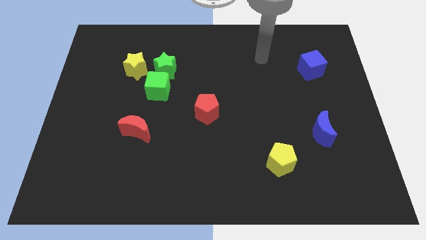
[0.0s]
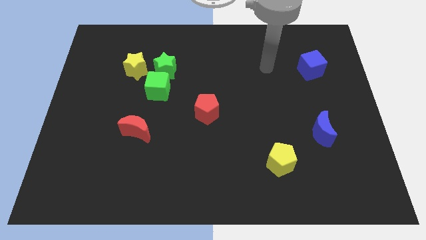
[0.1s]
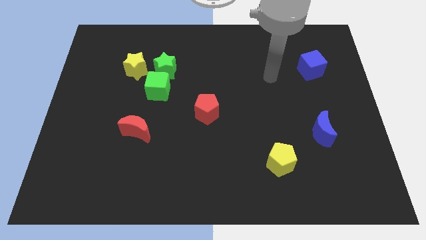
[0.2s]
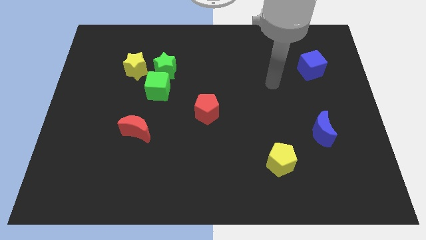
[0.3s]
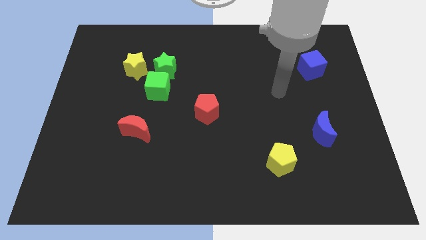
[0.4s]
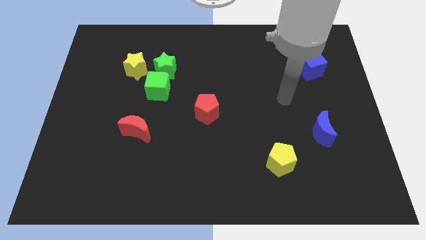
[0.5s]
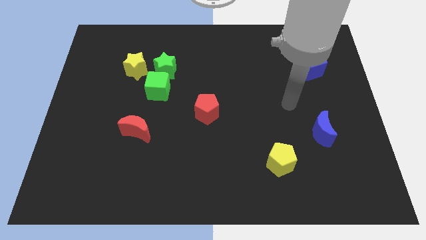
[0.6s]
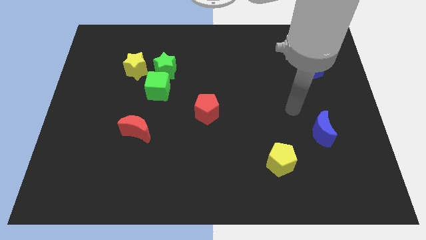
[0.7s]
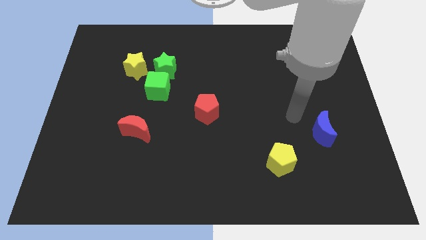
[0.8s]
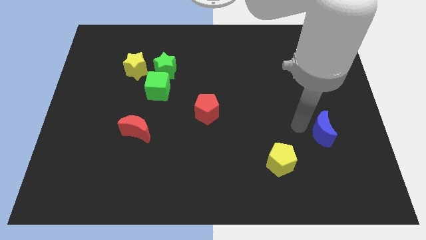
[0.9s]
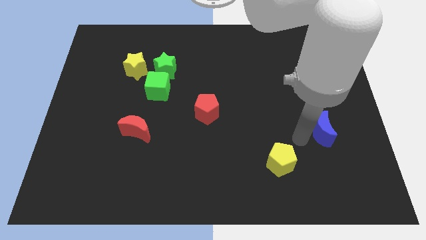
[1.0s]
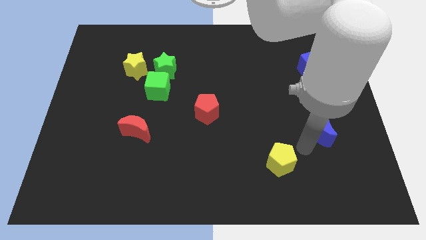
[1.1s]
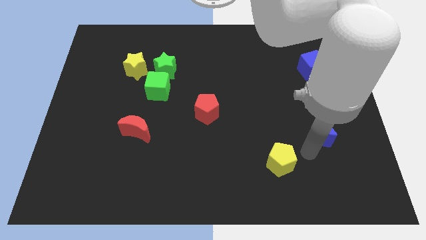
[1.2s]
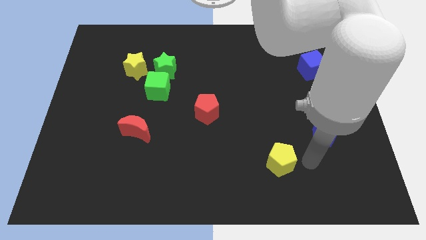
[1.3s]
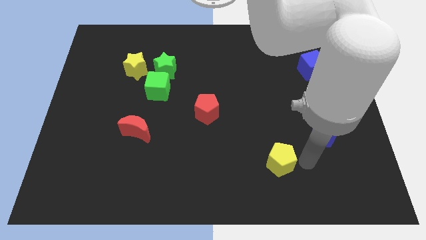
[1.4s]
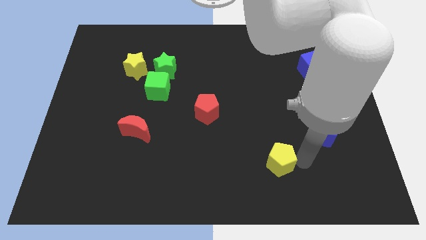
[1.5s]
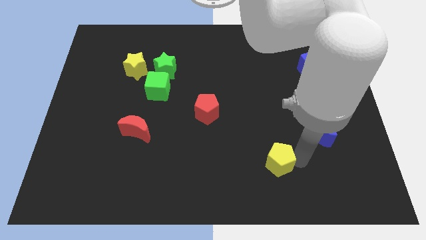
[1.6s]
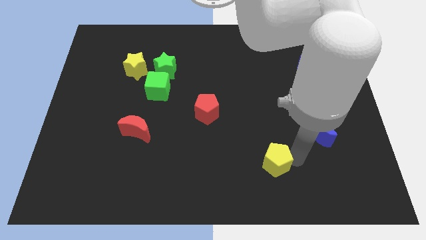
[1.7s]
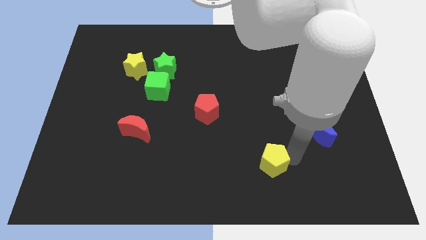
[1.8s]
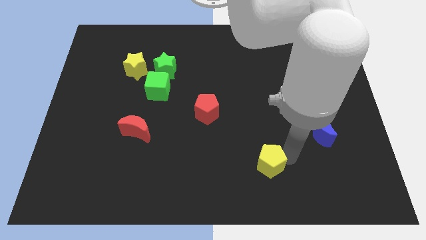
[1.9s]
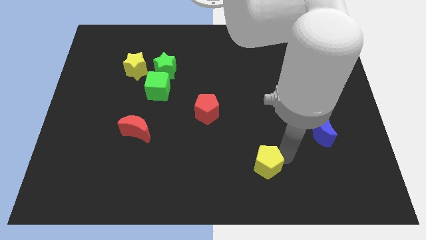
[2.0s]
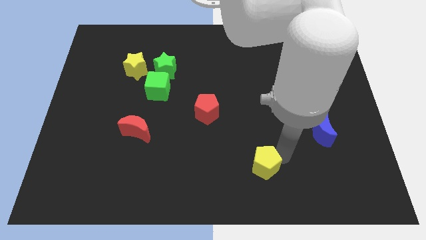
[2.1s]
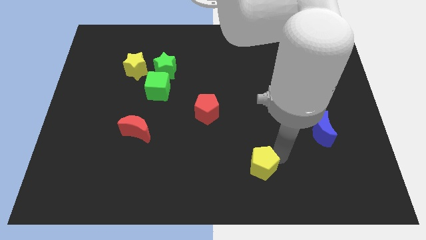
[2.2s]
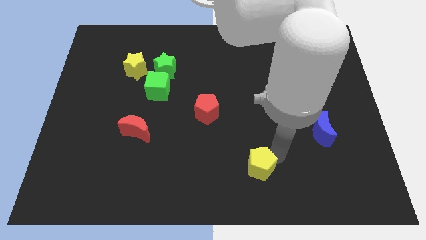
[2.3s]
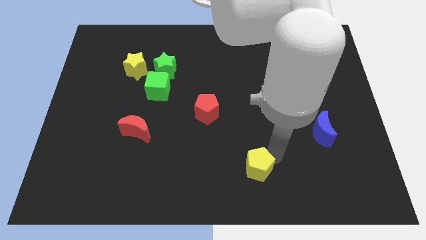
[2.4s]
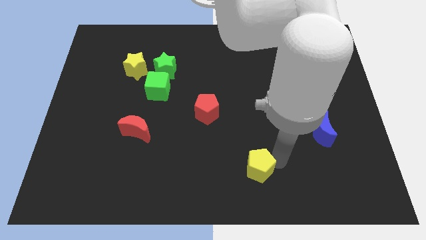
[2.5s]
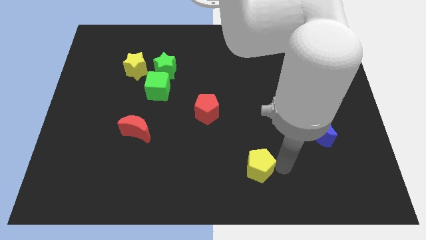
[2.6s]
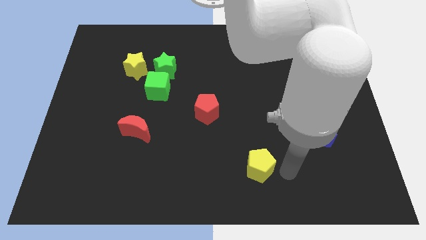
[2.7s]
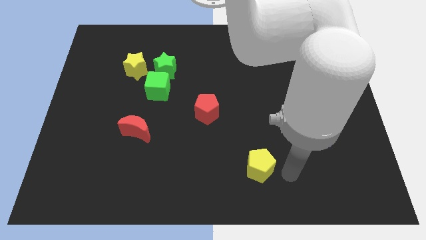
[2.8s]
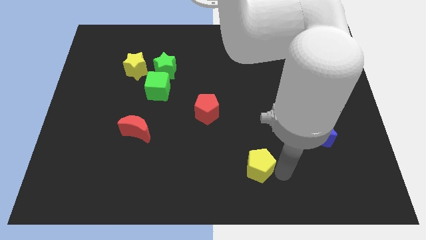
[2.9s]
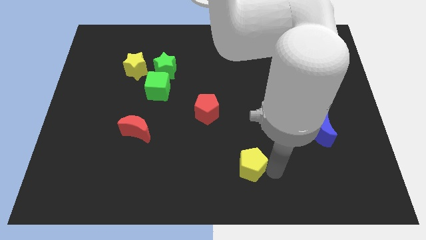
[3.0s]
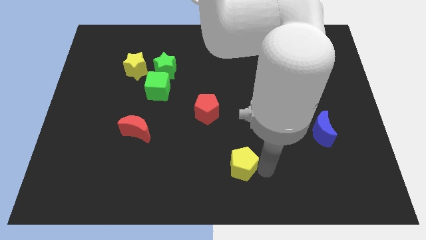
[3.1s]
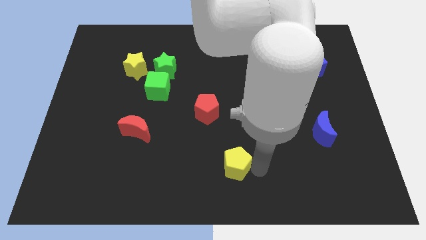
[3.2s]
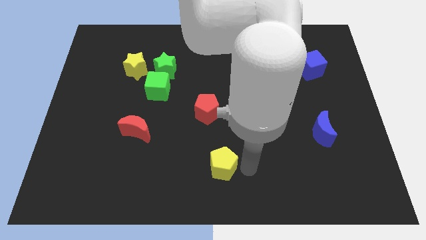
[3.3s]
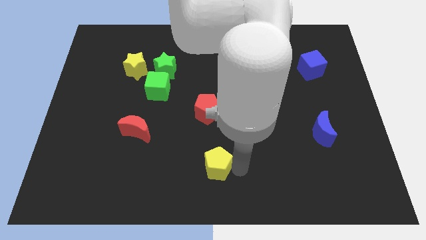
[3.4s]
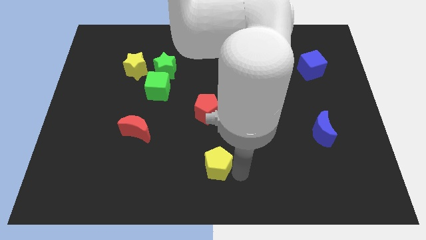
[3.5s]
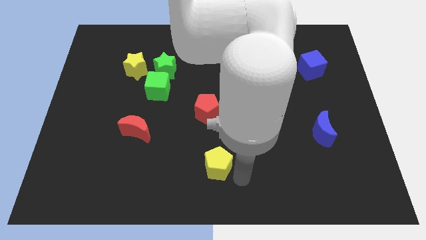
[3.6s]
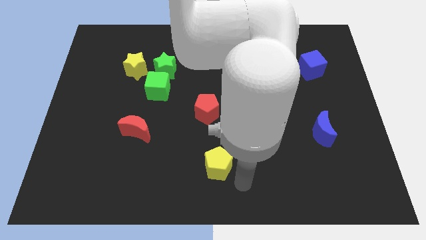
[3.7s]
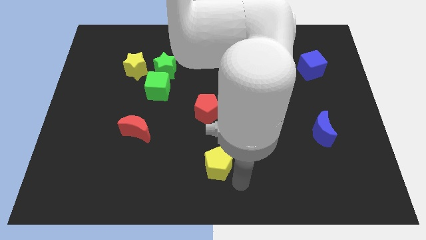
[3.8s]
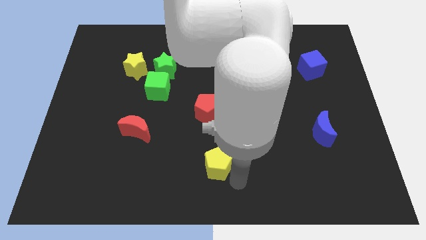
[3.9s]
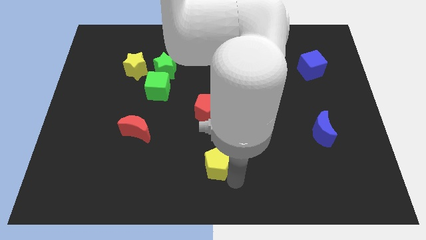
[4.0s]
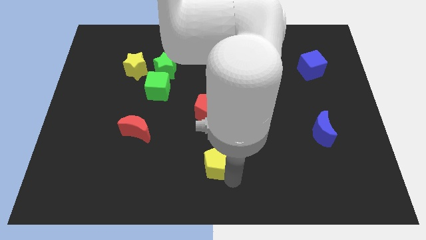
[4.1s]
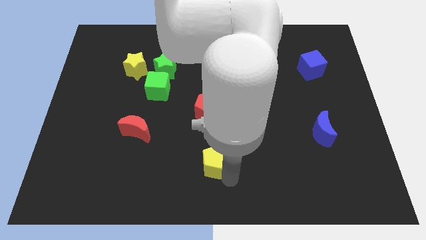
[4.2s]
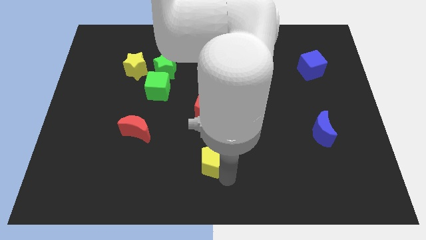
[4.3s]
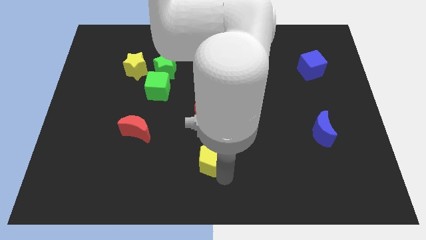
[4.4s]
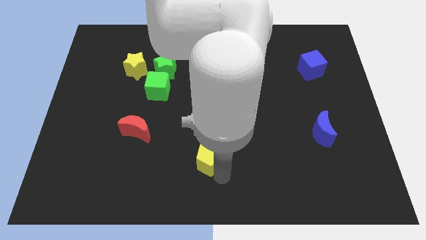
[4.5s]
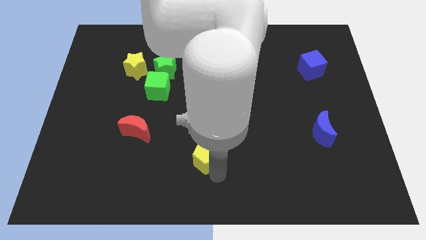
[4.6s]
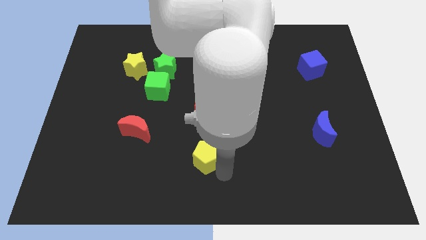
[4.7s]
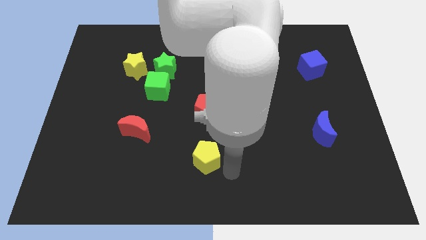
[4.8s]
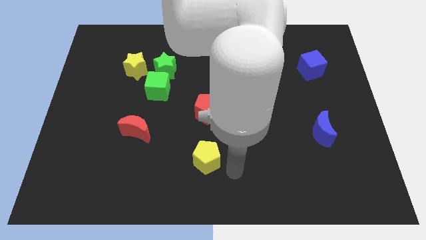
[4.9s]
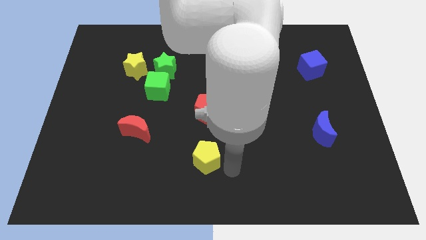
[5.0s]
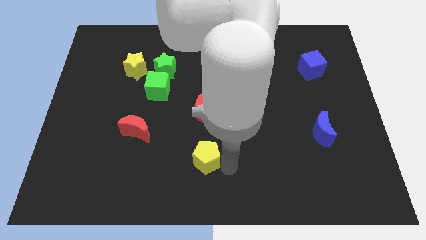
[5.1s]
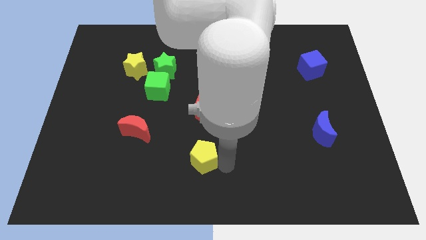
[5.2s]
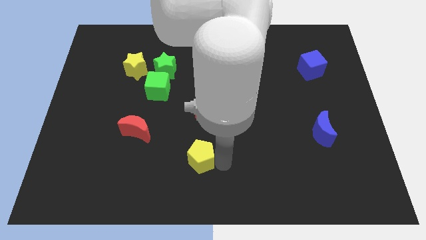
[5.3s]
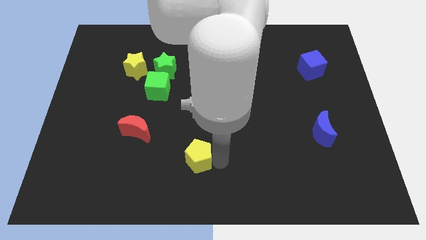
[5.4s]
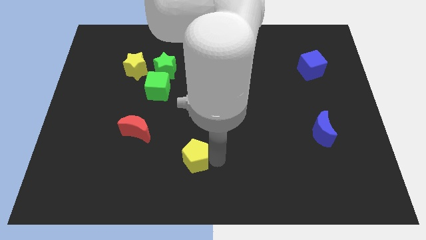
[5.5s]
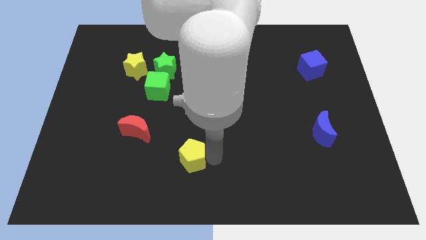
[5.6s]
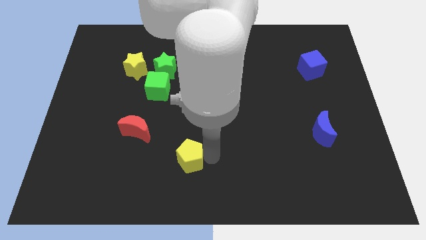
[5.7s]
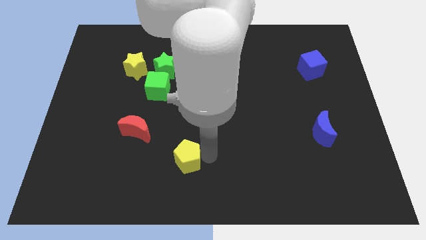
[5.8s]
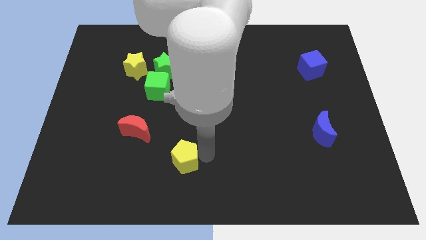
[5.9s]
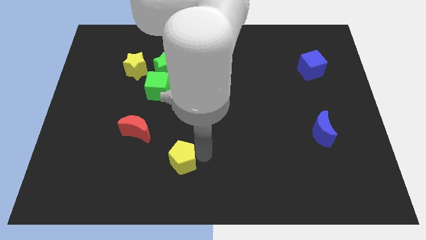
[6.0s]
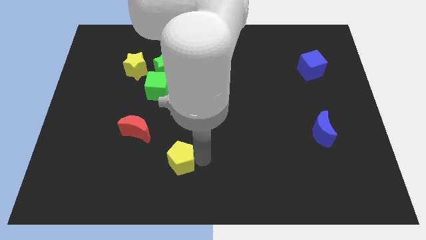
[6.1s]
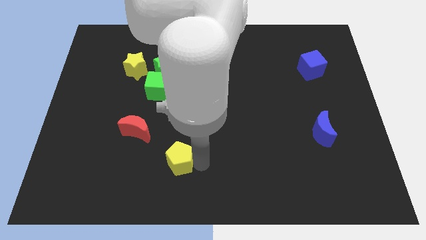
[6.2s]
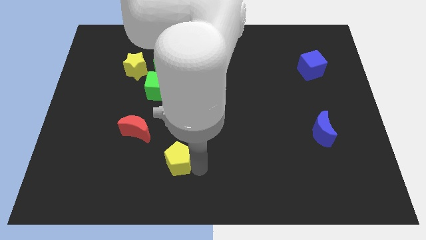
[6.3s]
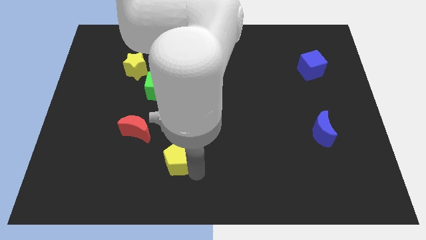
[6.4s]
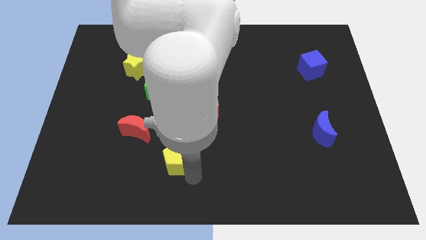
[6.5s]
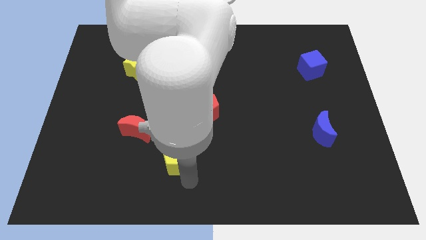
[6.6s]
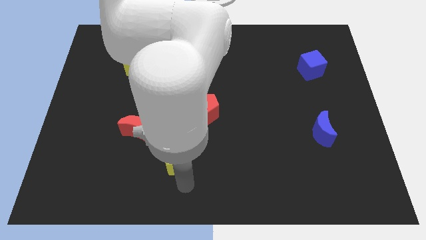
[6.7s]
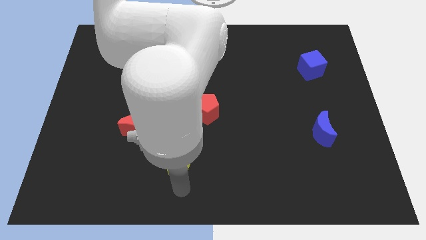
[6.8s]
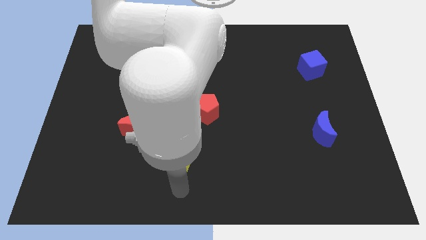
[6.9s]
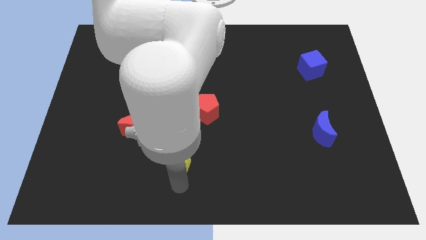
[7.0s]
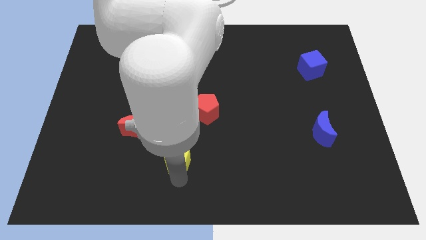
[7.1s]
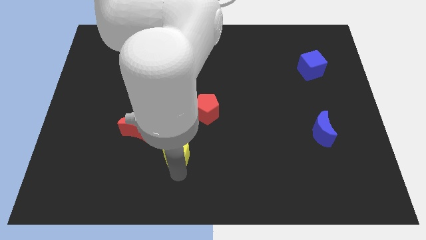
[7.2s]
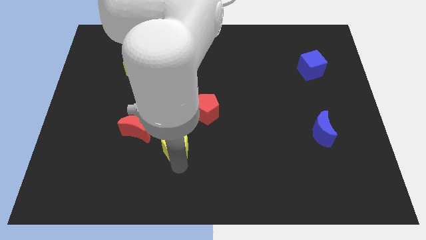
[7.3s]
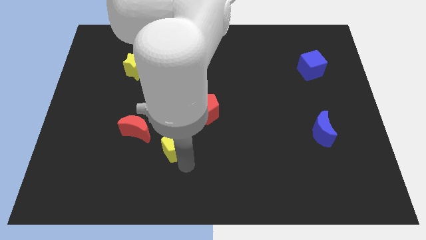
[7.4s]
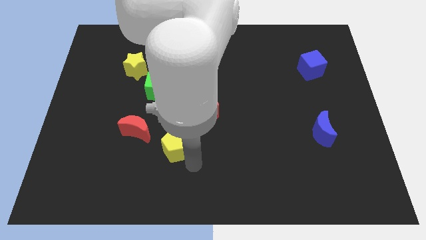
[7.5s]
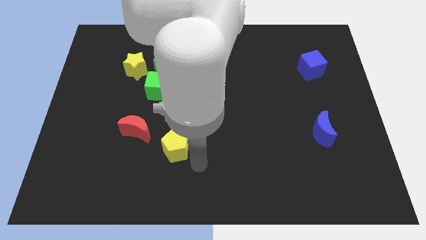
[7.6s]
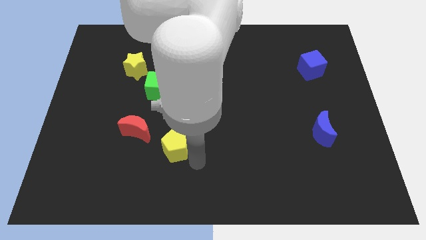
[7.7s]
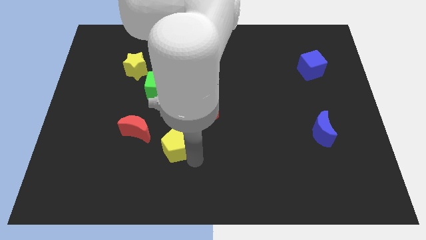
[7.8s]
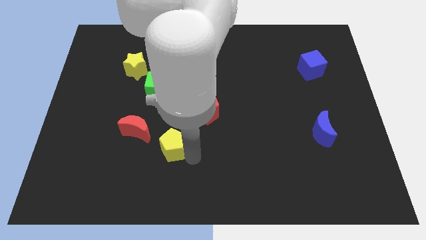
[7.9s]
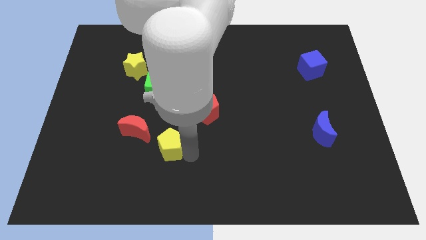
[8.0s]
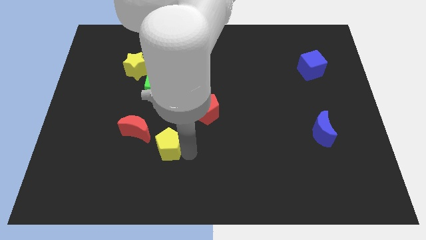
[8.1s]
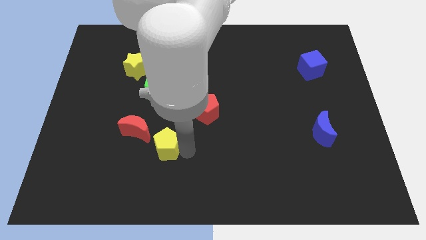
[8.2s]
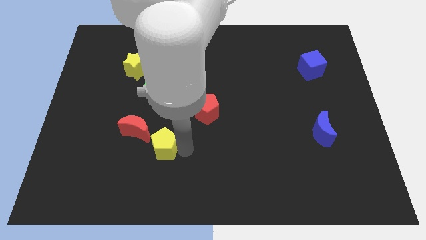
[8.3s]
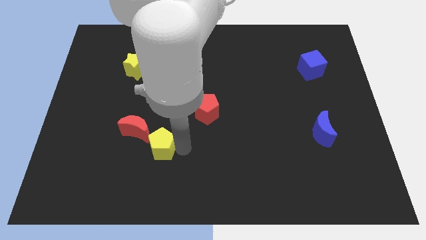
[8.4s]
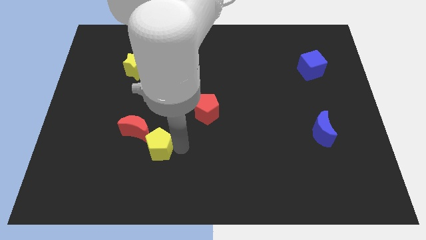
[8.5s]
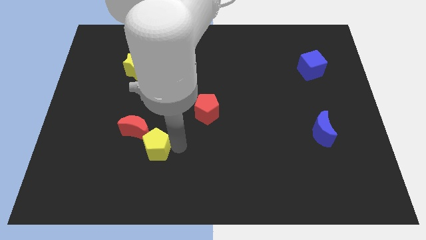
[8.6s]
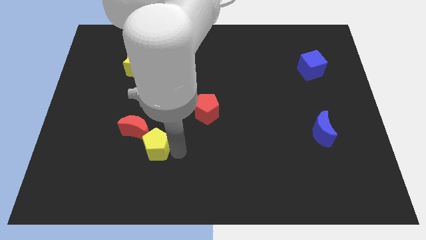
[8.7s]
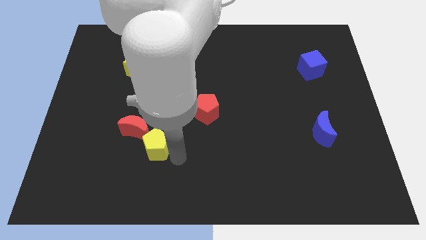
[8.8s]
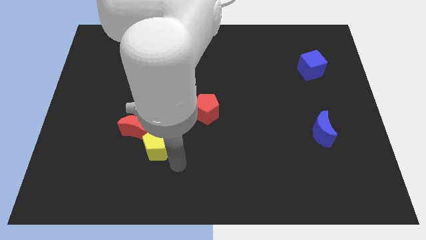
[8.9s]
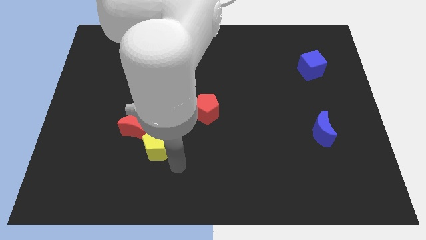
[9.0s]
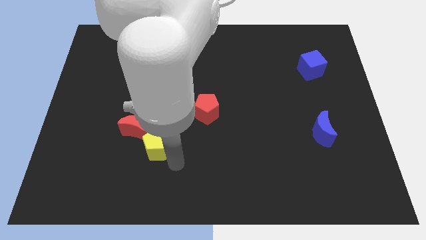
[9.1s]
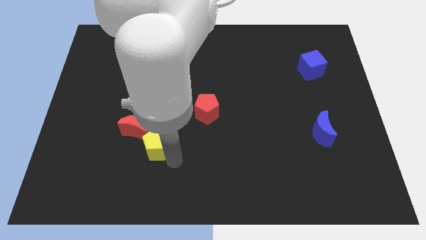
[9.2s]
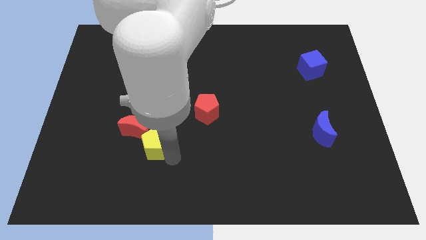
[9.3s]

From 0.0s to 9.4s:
put the yellow pentagon to the red moon
